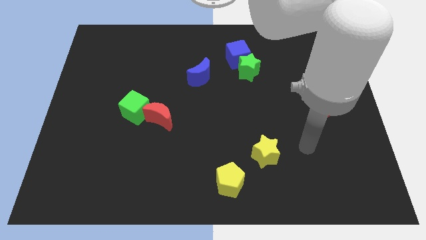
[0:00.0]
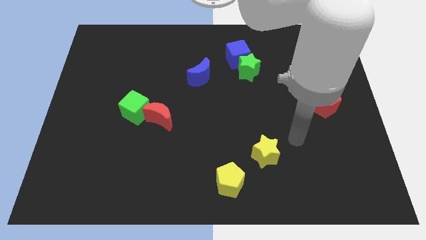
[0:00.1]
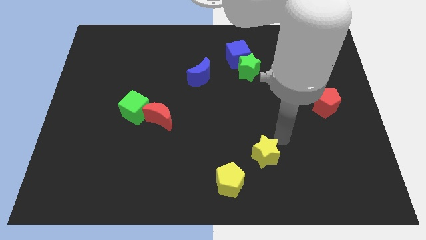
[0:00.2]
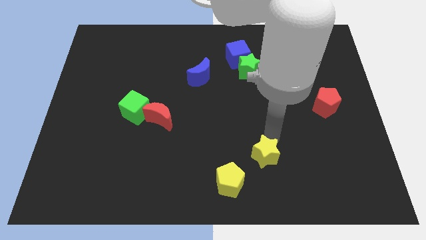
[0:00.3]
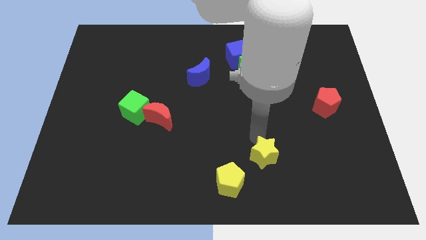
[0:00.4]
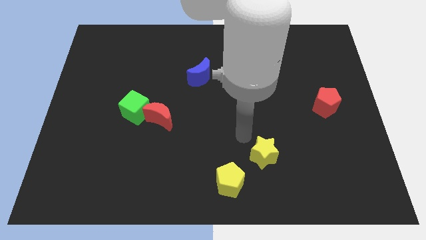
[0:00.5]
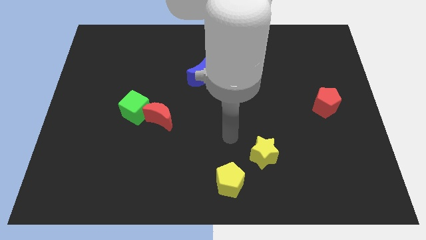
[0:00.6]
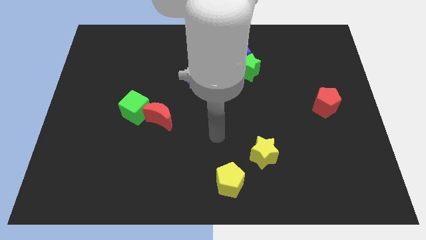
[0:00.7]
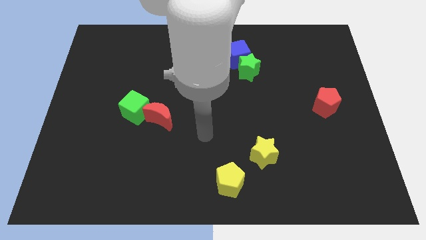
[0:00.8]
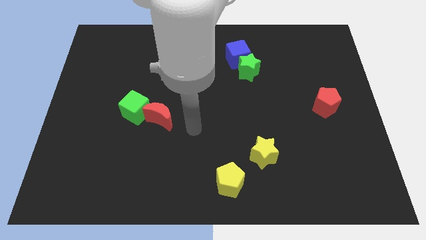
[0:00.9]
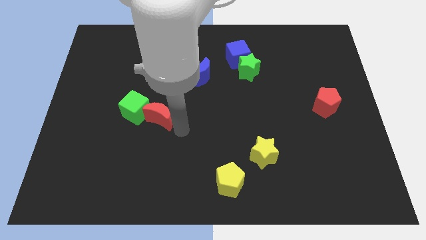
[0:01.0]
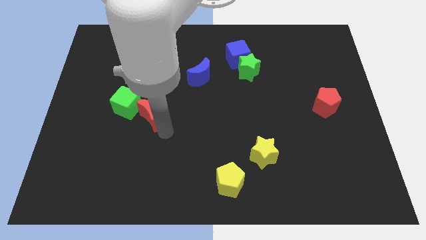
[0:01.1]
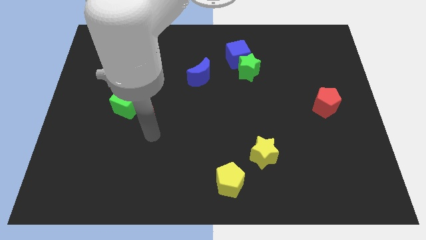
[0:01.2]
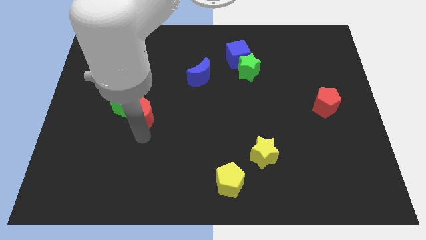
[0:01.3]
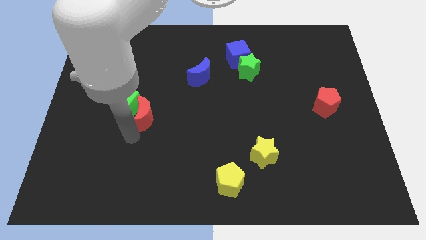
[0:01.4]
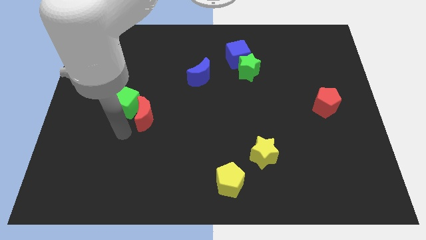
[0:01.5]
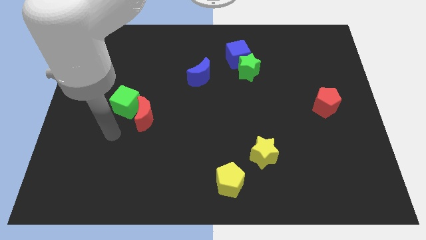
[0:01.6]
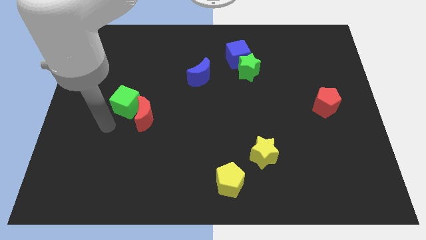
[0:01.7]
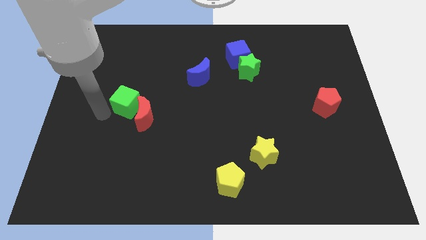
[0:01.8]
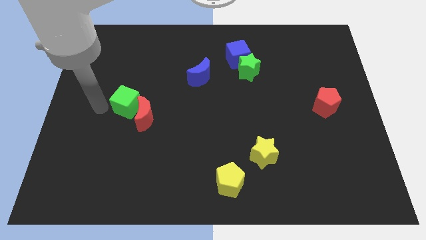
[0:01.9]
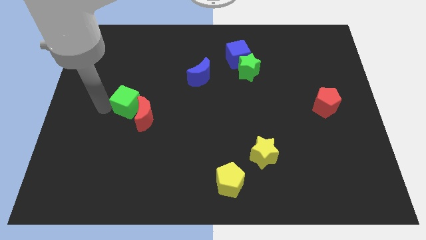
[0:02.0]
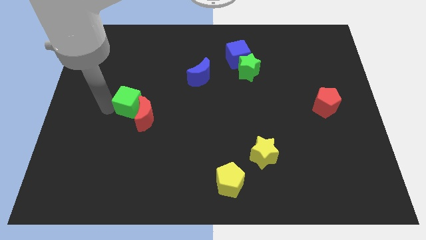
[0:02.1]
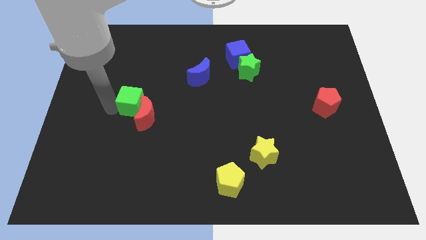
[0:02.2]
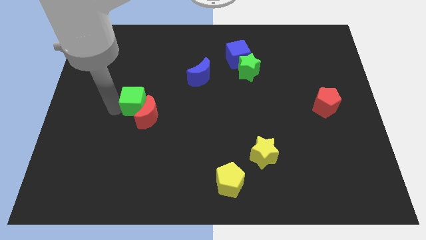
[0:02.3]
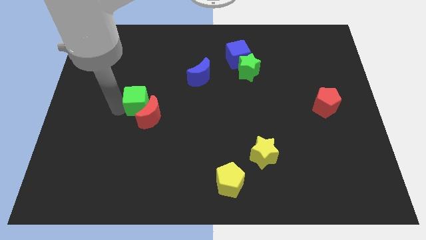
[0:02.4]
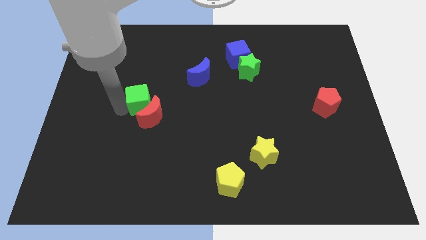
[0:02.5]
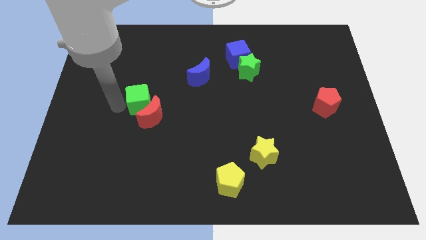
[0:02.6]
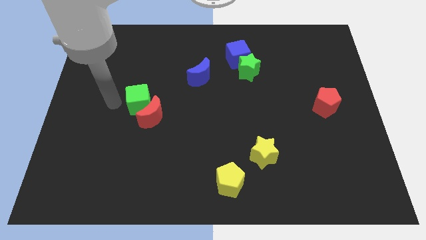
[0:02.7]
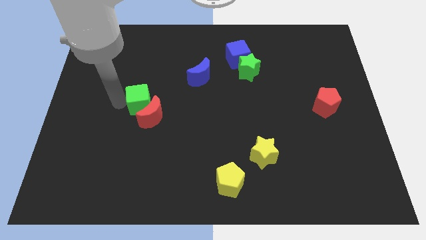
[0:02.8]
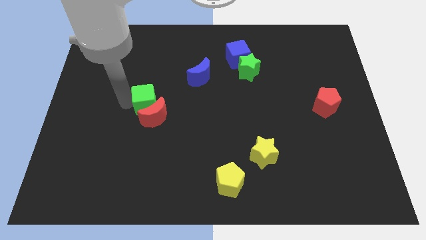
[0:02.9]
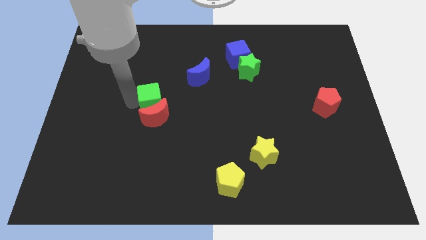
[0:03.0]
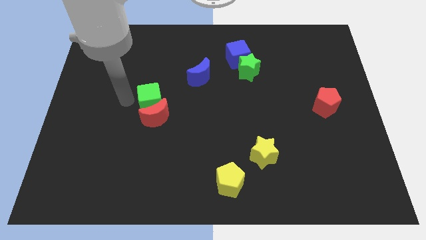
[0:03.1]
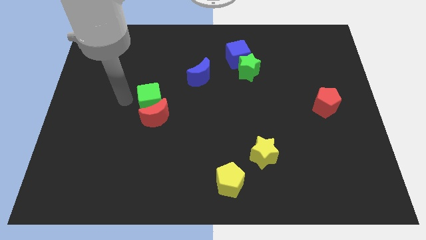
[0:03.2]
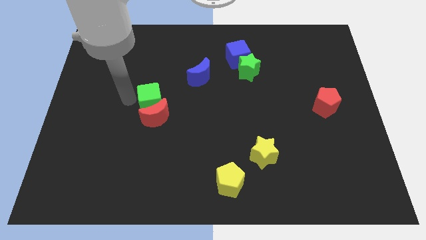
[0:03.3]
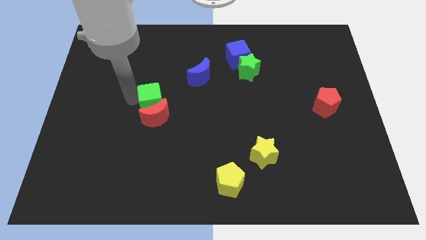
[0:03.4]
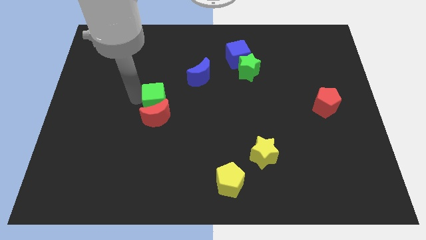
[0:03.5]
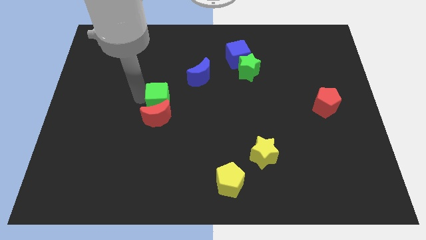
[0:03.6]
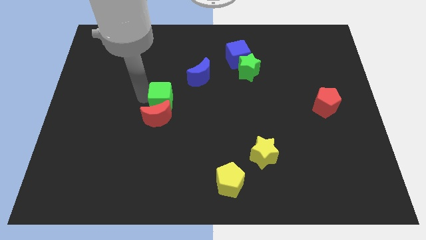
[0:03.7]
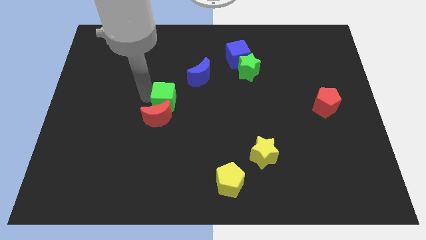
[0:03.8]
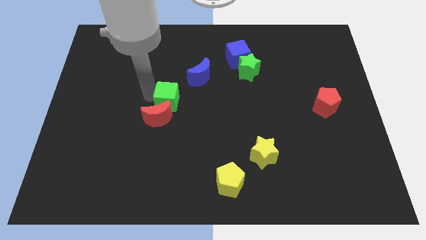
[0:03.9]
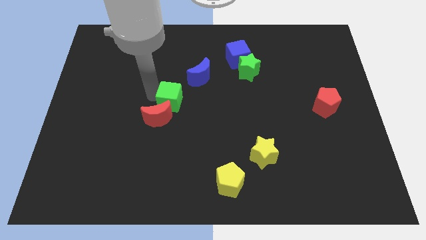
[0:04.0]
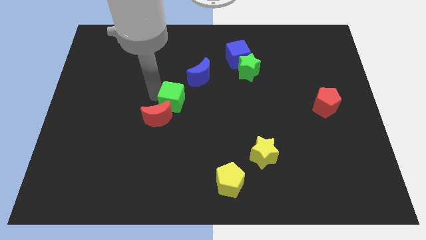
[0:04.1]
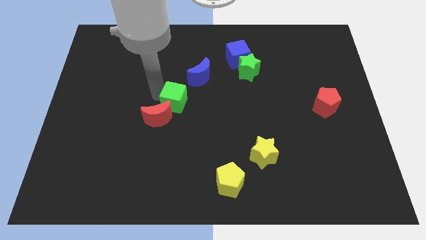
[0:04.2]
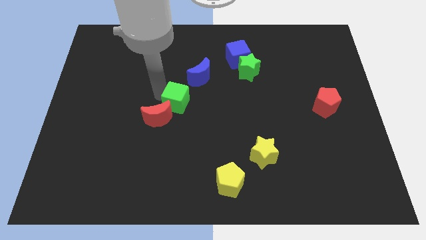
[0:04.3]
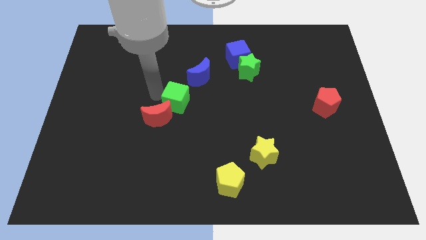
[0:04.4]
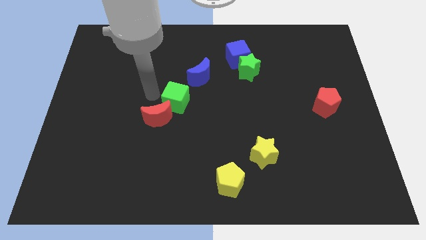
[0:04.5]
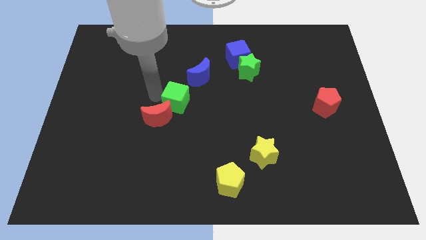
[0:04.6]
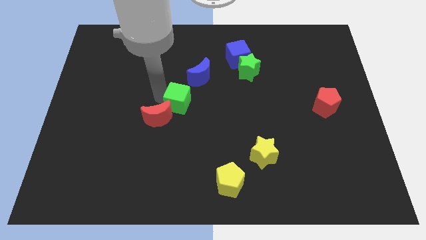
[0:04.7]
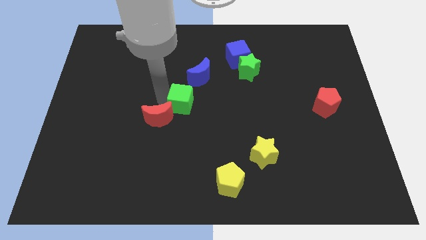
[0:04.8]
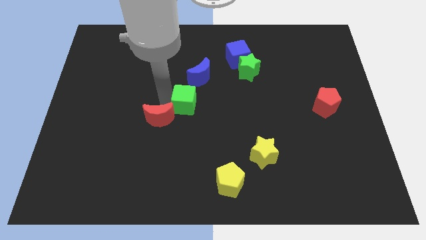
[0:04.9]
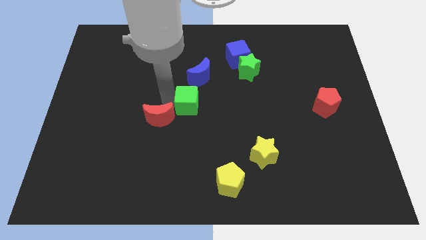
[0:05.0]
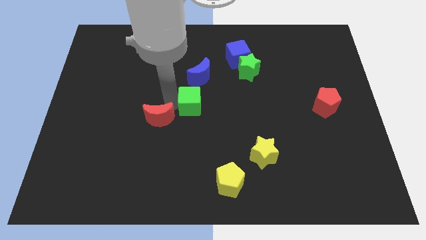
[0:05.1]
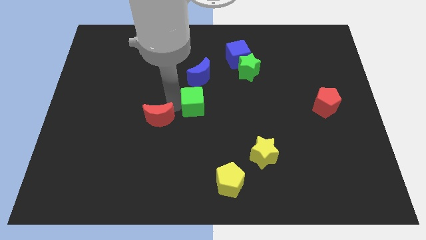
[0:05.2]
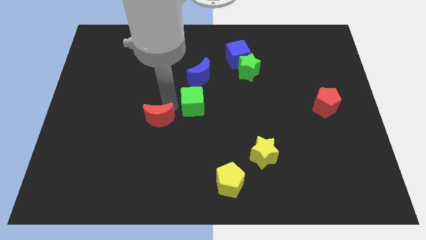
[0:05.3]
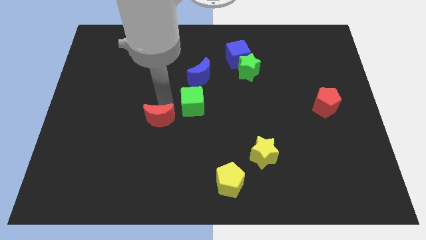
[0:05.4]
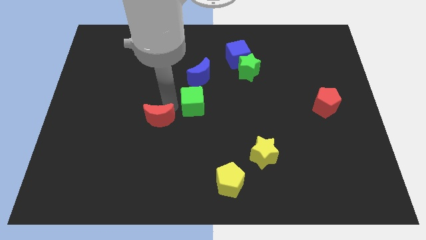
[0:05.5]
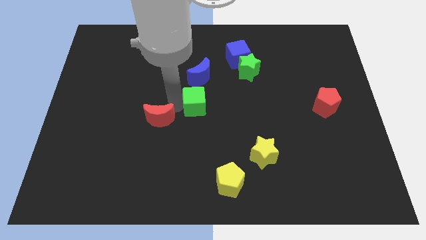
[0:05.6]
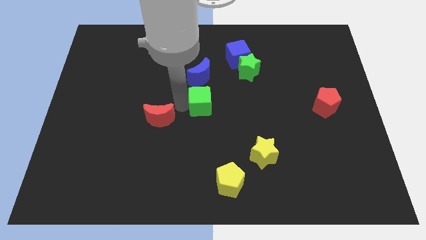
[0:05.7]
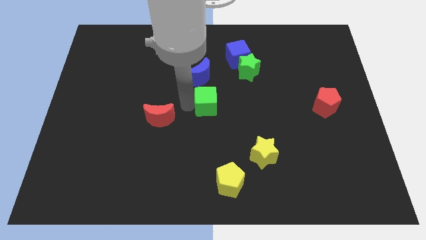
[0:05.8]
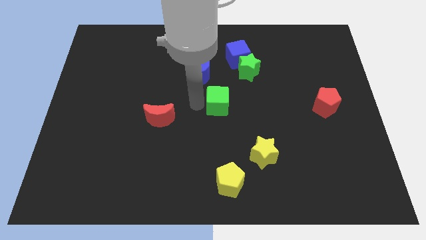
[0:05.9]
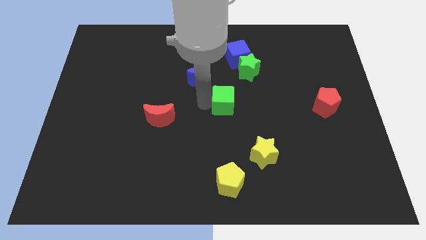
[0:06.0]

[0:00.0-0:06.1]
slide the green cube right

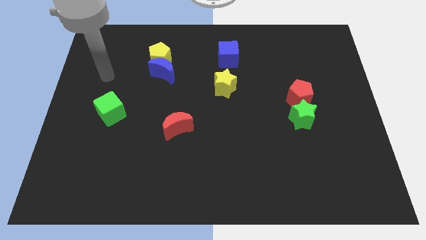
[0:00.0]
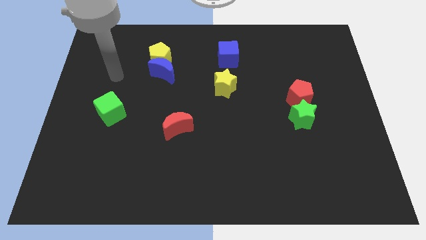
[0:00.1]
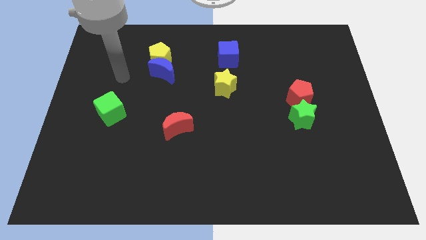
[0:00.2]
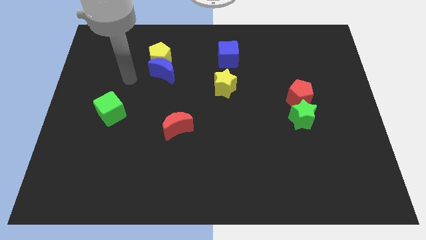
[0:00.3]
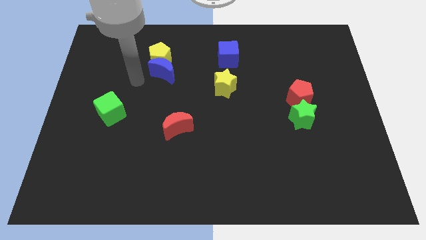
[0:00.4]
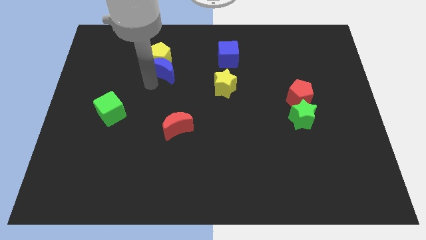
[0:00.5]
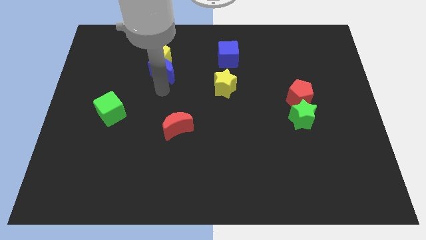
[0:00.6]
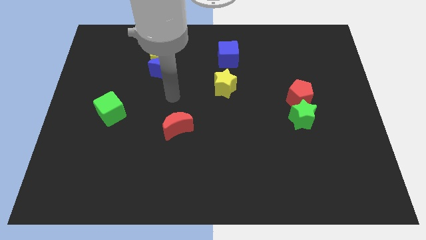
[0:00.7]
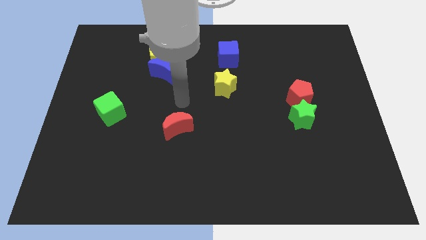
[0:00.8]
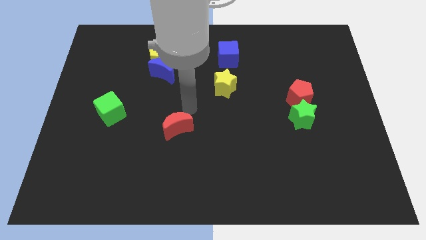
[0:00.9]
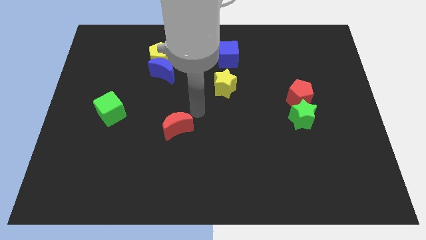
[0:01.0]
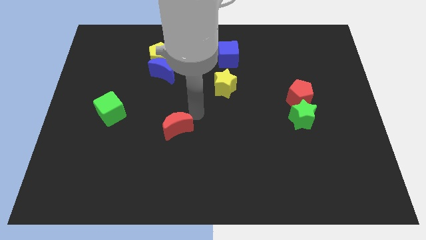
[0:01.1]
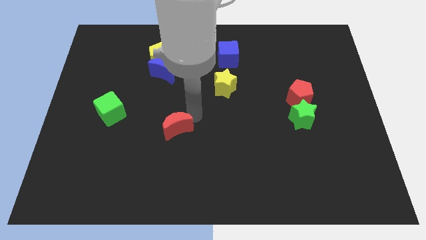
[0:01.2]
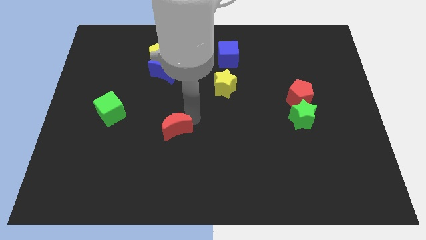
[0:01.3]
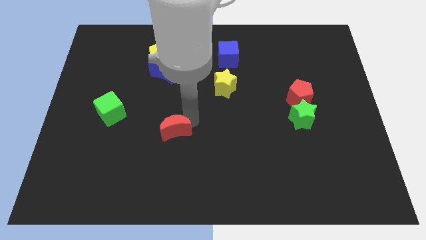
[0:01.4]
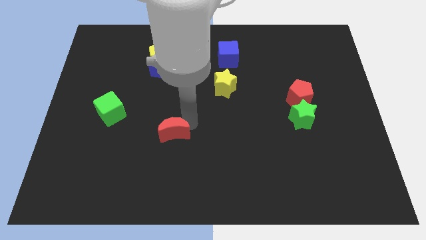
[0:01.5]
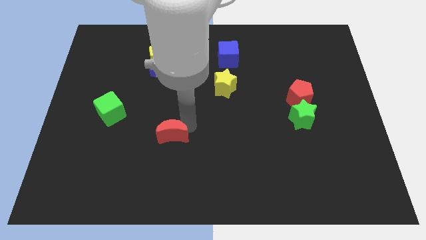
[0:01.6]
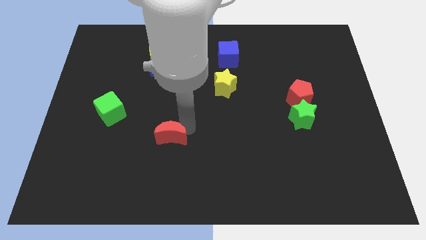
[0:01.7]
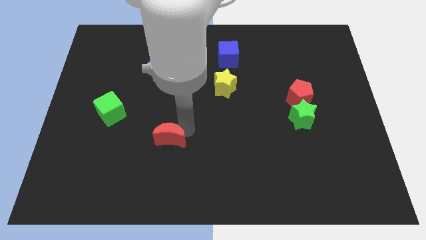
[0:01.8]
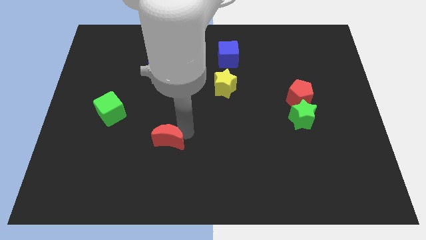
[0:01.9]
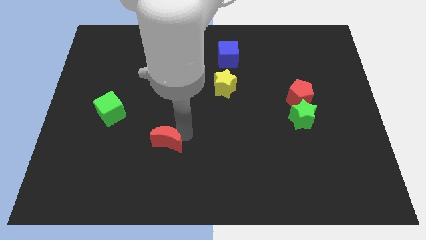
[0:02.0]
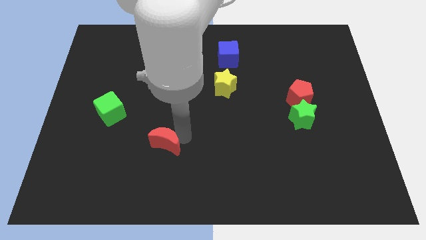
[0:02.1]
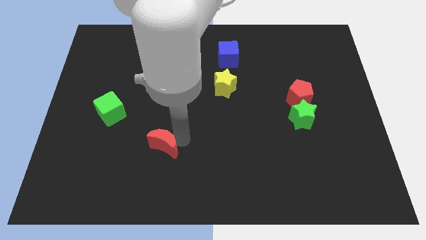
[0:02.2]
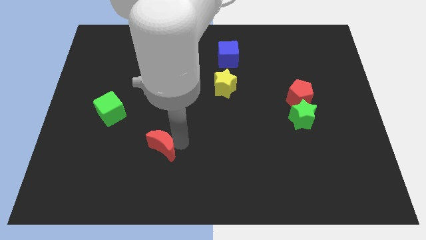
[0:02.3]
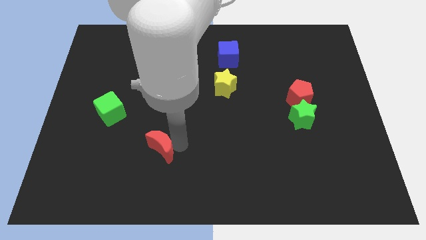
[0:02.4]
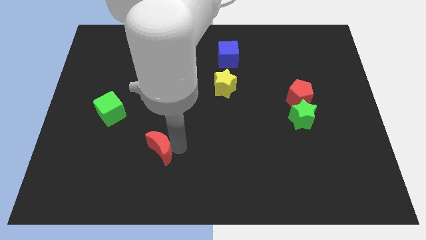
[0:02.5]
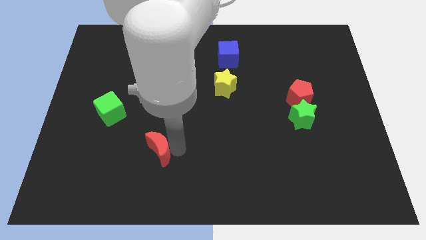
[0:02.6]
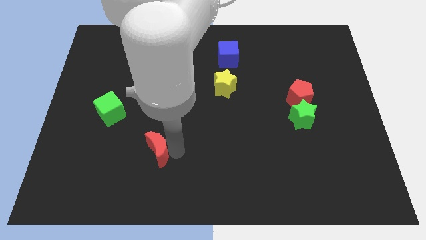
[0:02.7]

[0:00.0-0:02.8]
move the red moon downwards and to the left diagonally slightly
